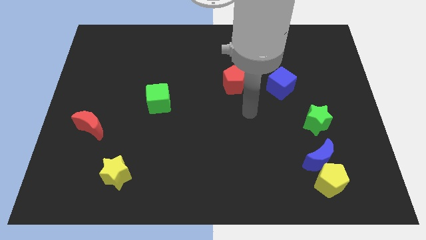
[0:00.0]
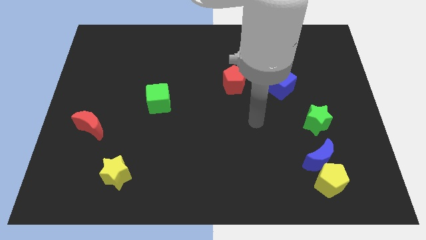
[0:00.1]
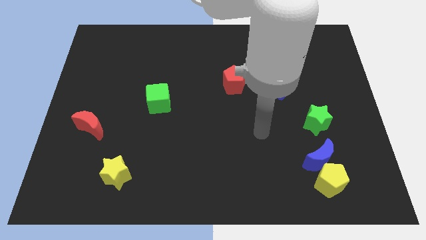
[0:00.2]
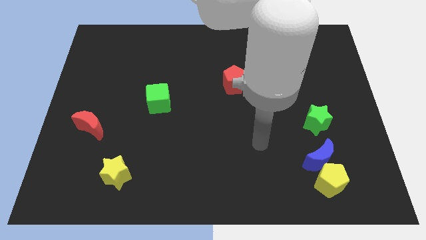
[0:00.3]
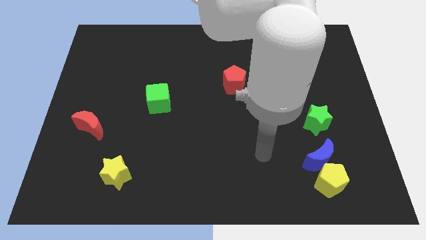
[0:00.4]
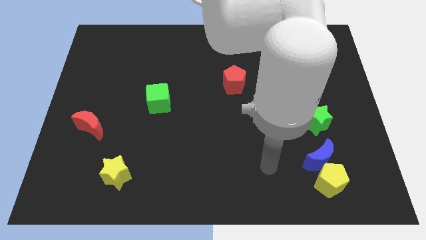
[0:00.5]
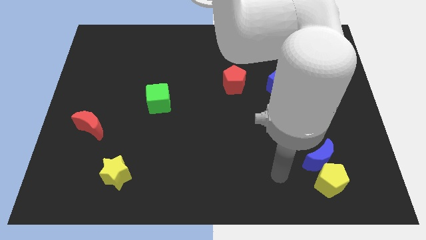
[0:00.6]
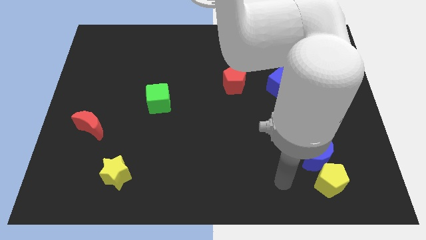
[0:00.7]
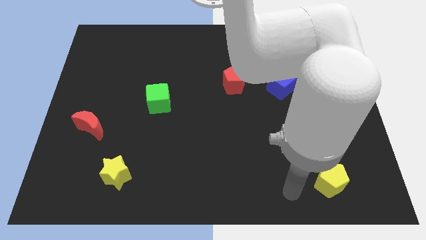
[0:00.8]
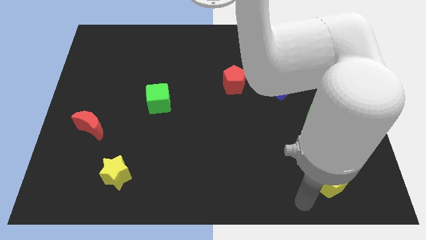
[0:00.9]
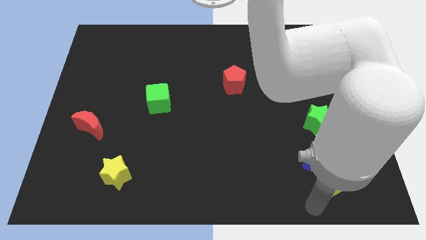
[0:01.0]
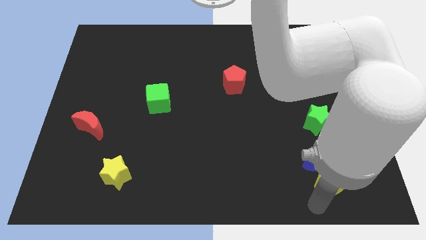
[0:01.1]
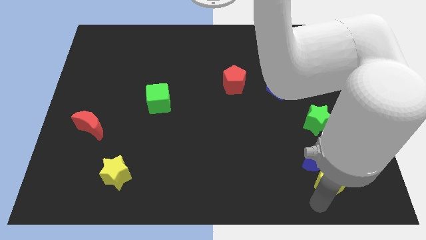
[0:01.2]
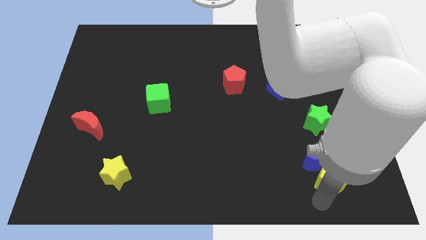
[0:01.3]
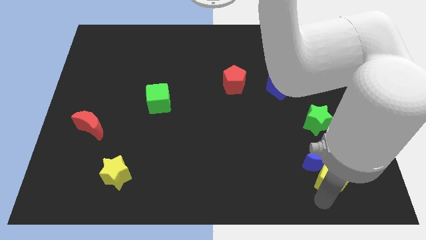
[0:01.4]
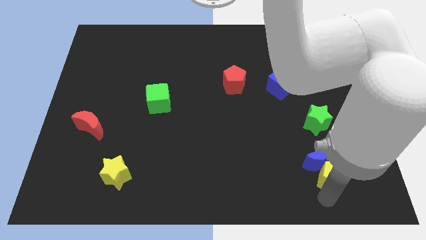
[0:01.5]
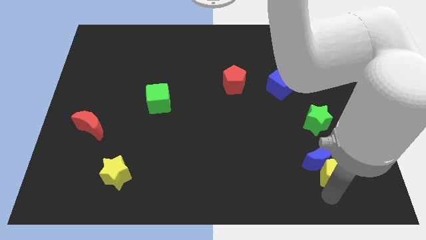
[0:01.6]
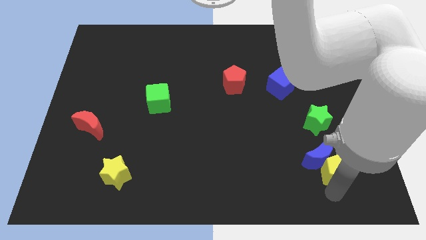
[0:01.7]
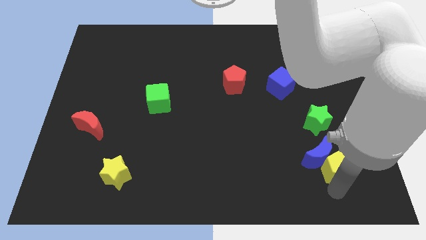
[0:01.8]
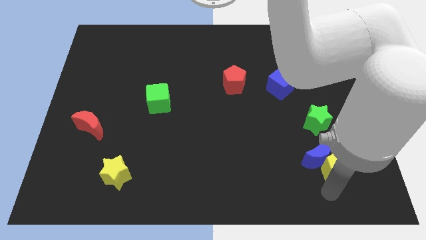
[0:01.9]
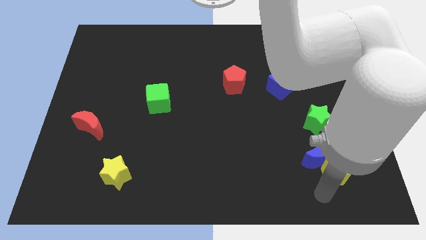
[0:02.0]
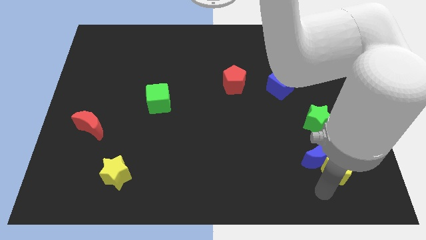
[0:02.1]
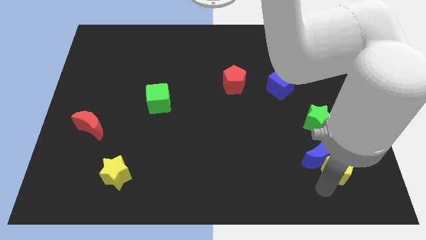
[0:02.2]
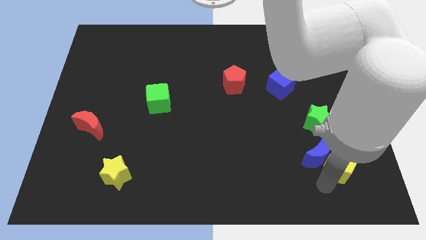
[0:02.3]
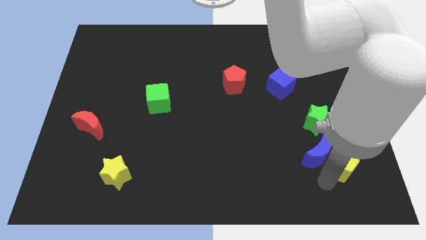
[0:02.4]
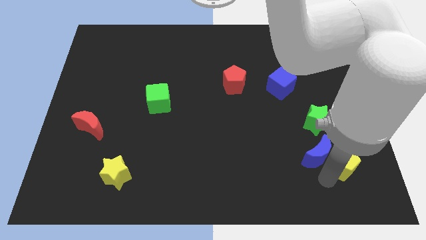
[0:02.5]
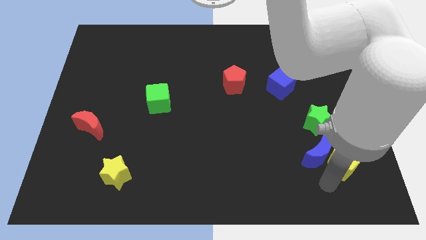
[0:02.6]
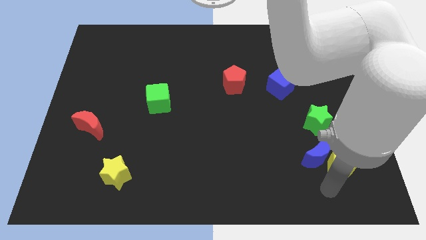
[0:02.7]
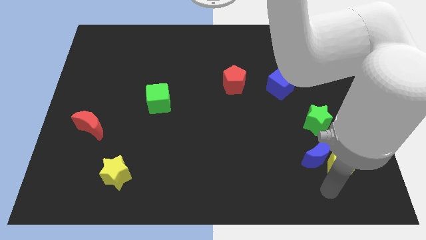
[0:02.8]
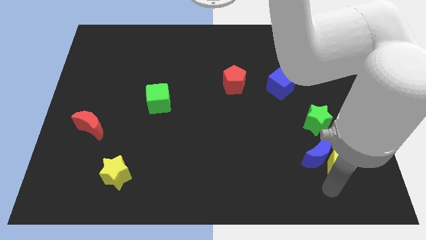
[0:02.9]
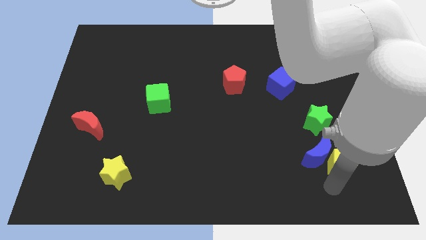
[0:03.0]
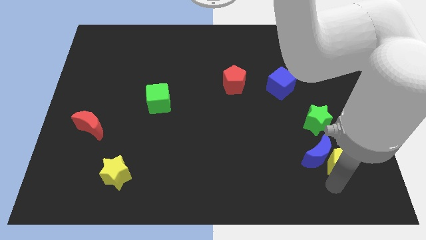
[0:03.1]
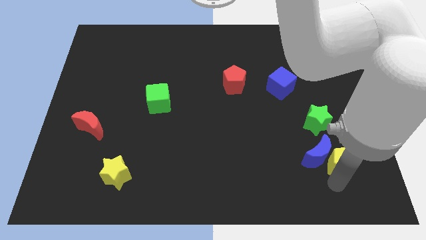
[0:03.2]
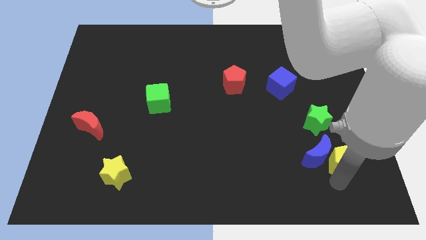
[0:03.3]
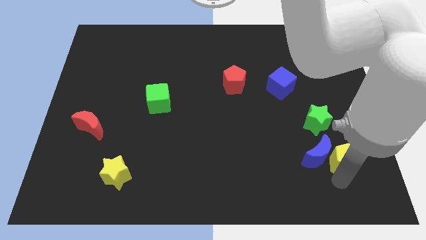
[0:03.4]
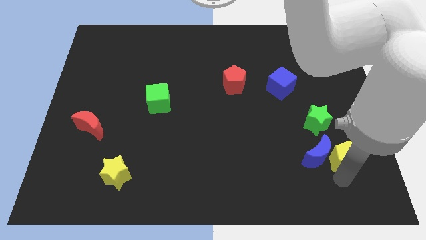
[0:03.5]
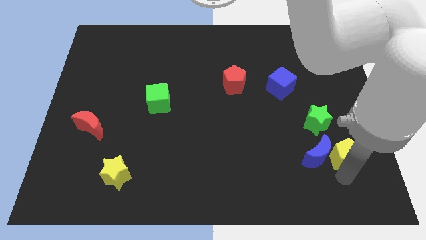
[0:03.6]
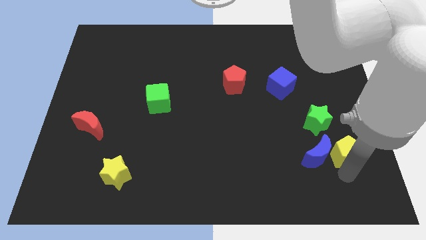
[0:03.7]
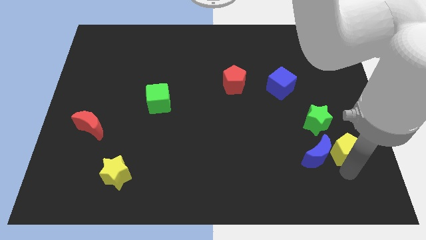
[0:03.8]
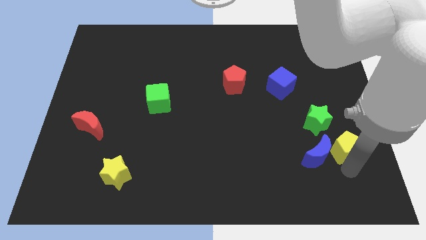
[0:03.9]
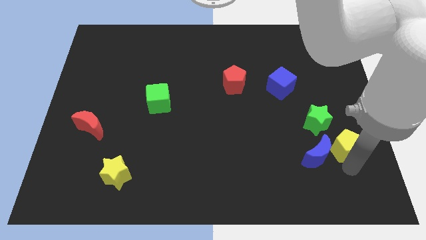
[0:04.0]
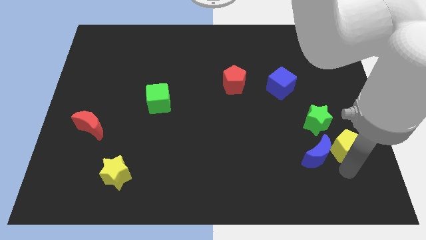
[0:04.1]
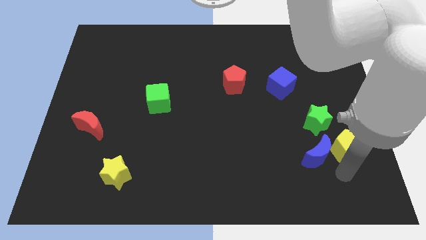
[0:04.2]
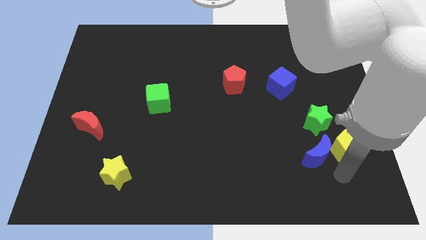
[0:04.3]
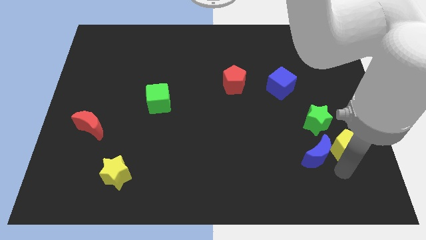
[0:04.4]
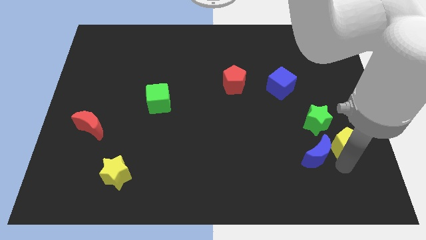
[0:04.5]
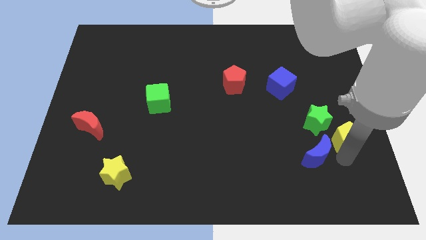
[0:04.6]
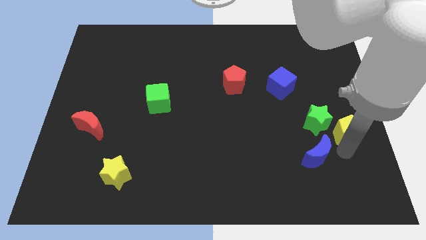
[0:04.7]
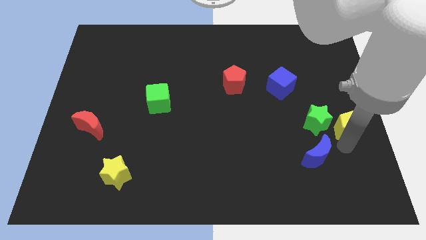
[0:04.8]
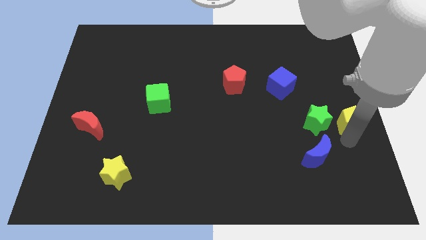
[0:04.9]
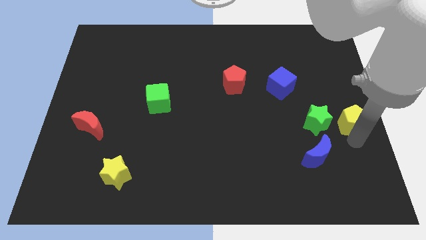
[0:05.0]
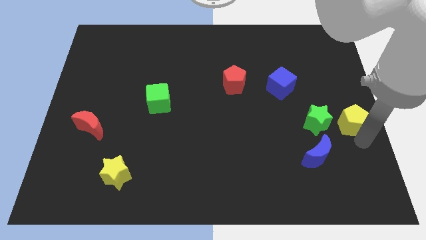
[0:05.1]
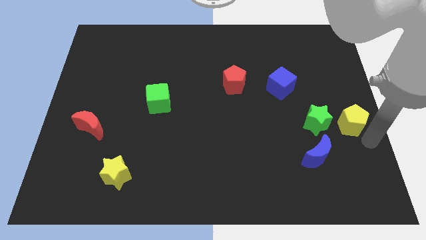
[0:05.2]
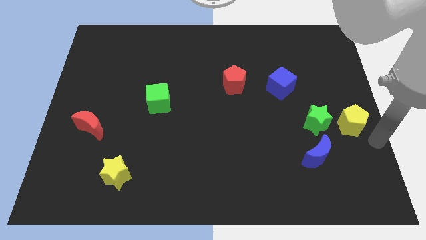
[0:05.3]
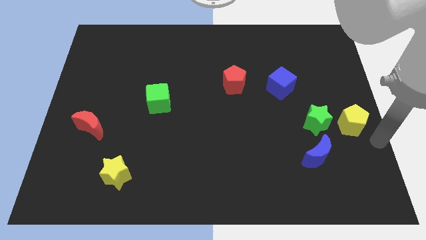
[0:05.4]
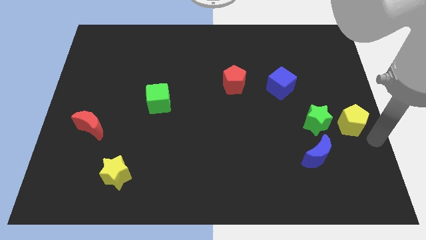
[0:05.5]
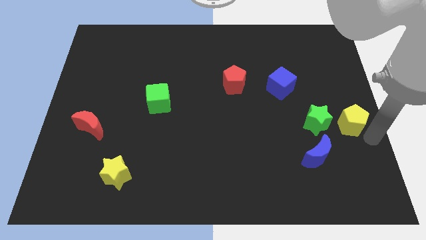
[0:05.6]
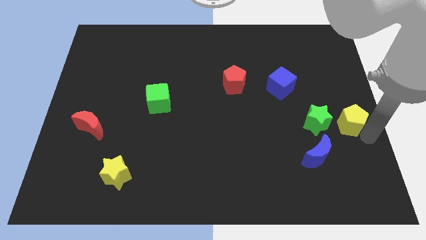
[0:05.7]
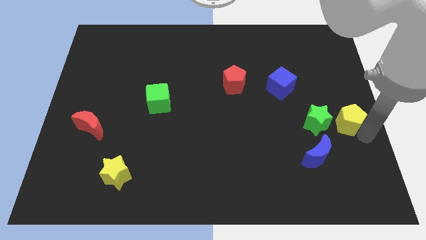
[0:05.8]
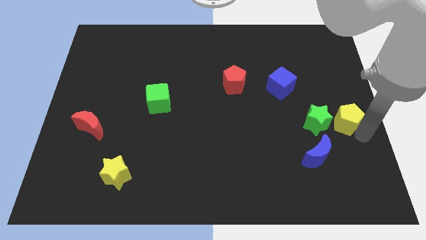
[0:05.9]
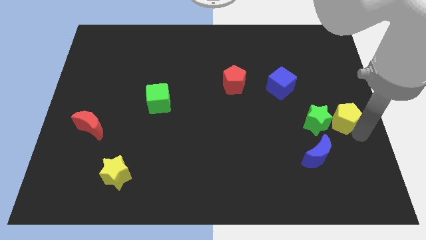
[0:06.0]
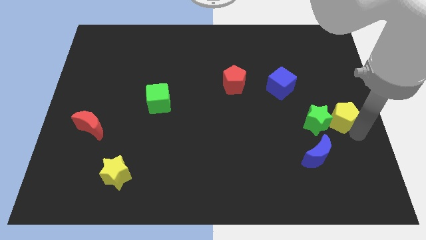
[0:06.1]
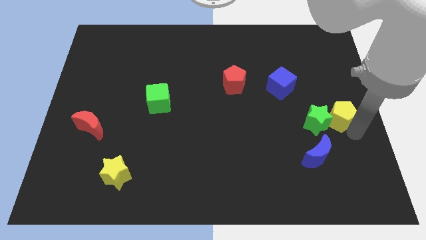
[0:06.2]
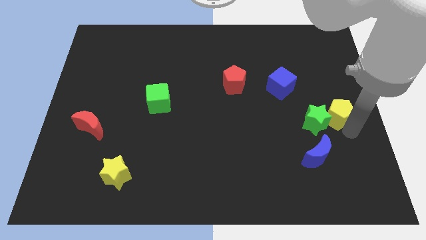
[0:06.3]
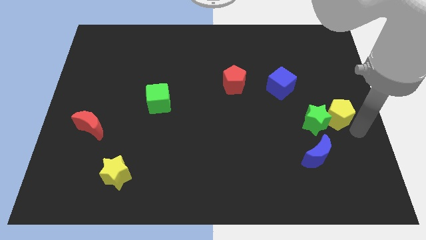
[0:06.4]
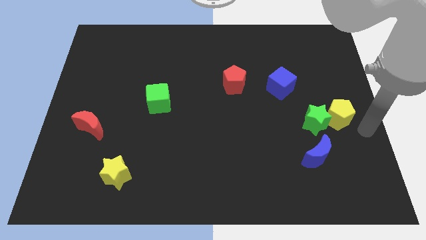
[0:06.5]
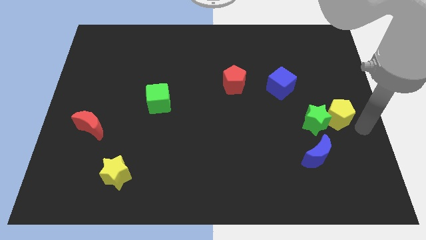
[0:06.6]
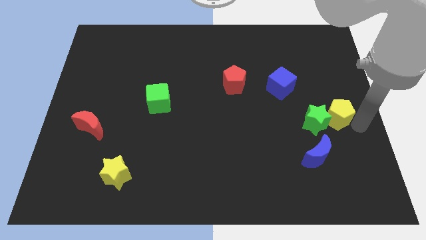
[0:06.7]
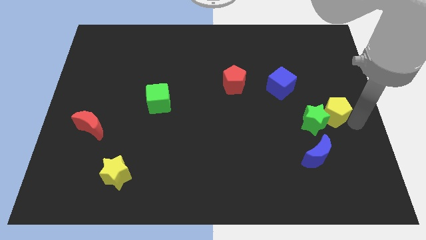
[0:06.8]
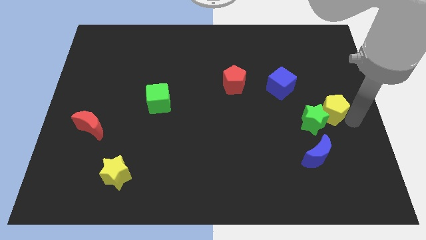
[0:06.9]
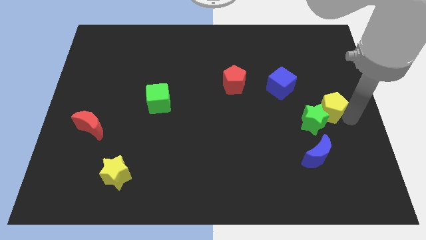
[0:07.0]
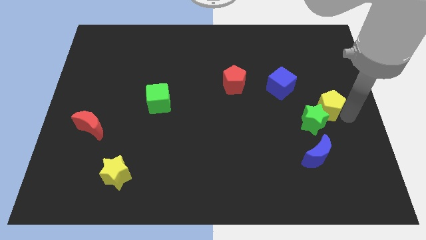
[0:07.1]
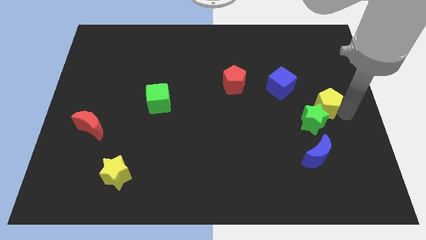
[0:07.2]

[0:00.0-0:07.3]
put the yellow pentagon diagonally down and to the right of the blue cube
